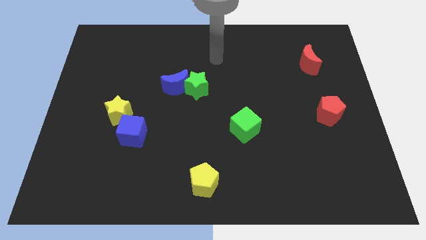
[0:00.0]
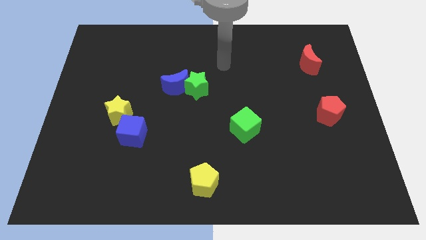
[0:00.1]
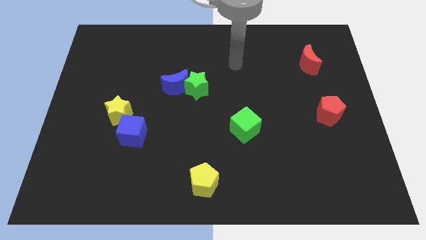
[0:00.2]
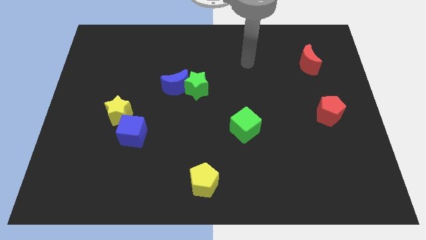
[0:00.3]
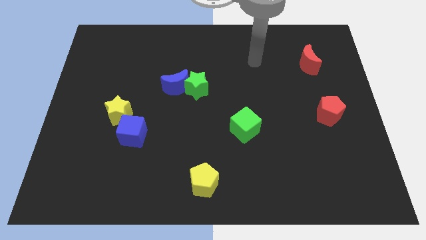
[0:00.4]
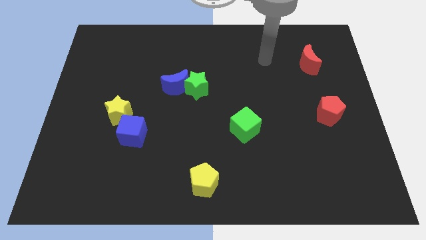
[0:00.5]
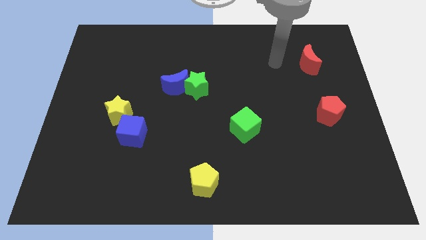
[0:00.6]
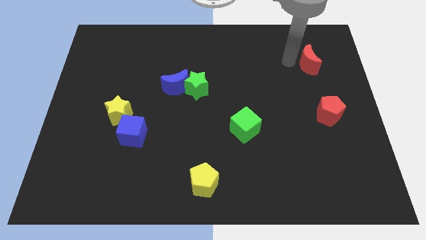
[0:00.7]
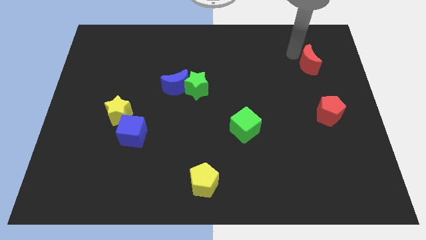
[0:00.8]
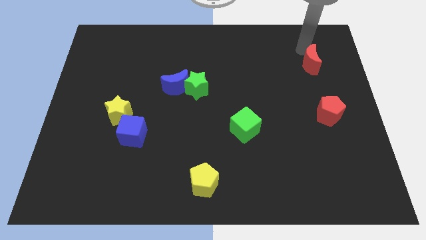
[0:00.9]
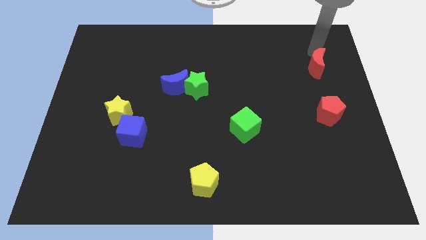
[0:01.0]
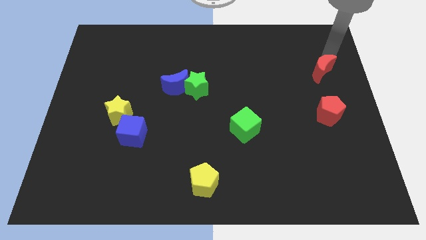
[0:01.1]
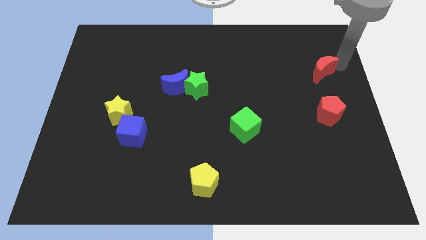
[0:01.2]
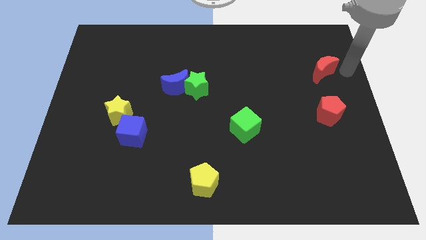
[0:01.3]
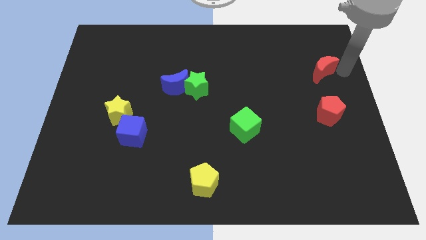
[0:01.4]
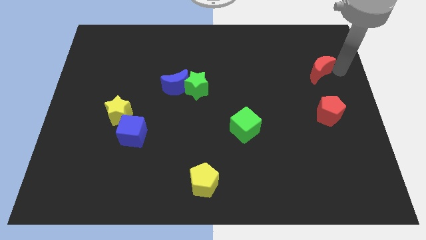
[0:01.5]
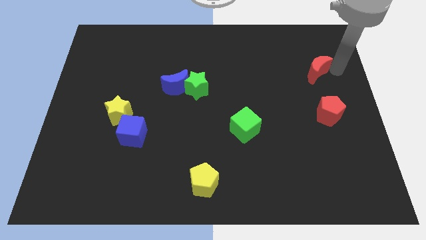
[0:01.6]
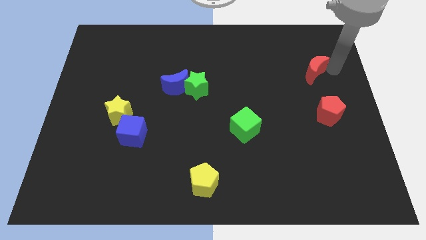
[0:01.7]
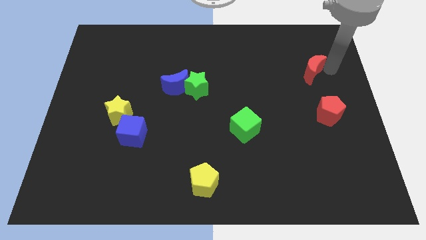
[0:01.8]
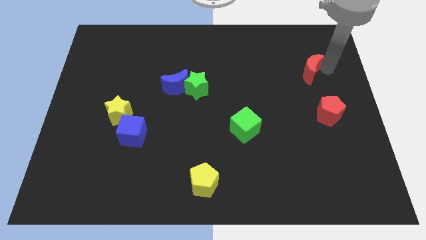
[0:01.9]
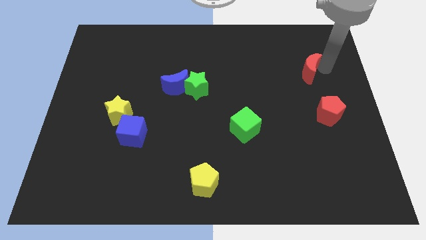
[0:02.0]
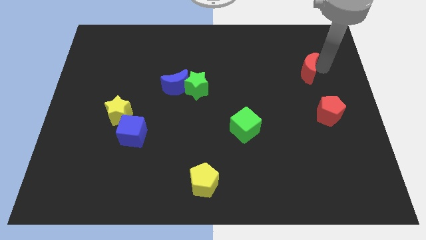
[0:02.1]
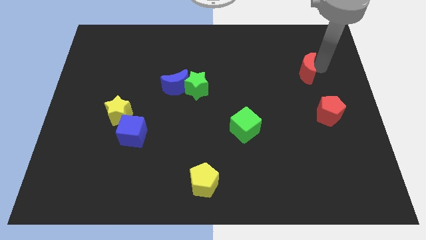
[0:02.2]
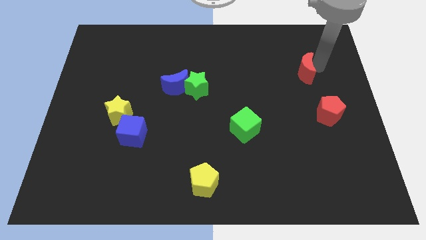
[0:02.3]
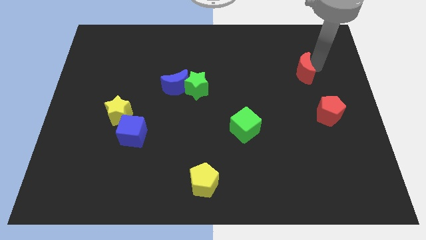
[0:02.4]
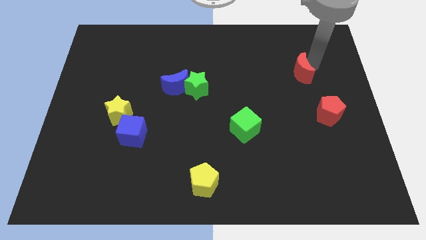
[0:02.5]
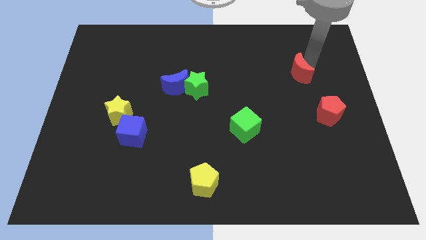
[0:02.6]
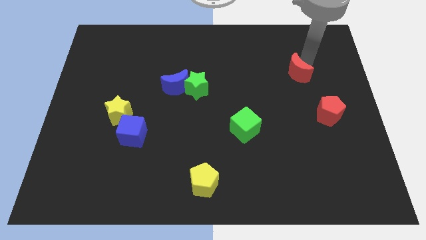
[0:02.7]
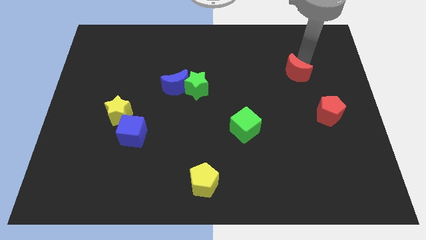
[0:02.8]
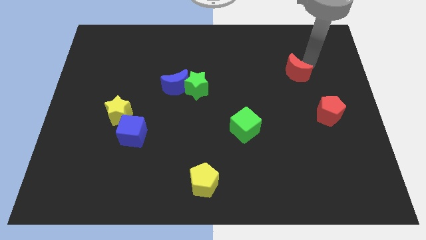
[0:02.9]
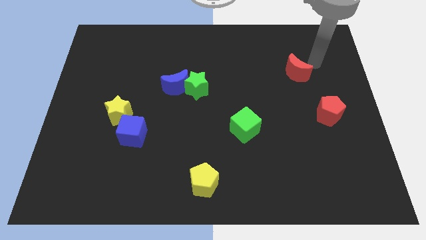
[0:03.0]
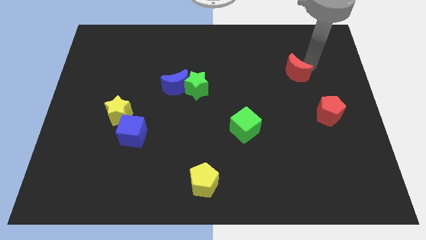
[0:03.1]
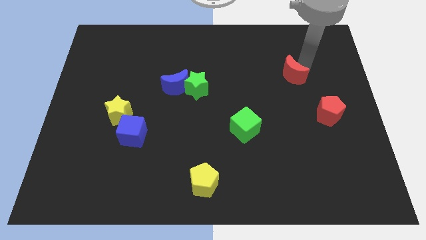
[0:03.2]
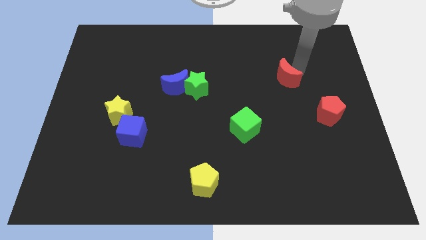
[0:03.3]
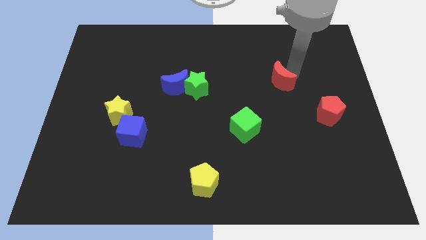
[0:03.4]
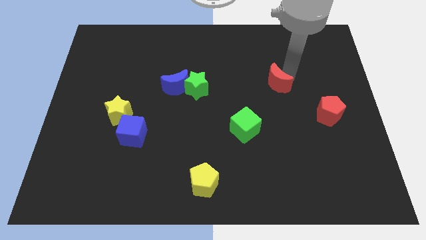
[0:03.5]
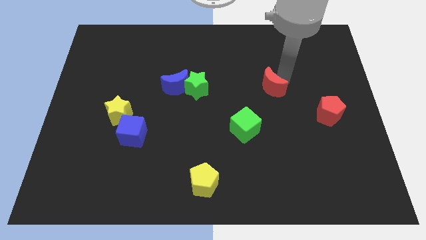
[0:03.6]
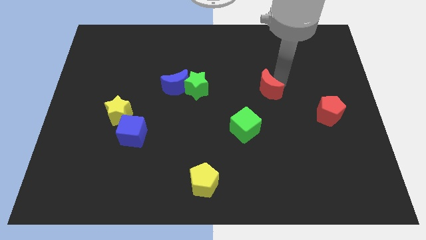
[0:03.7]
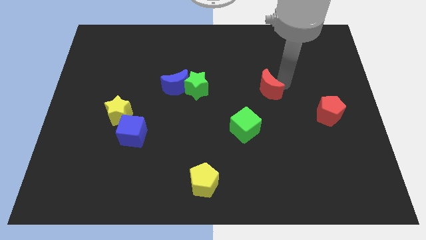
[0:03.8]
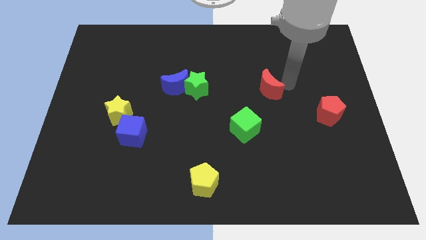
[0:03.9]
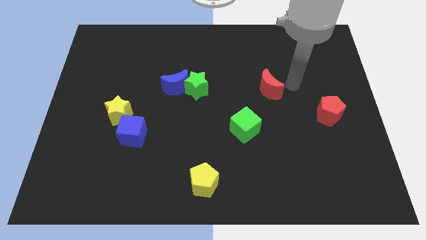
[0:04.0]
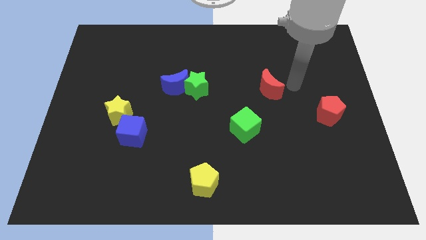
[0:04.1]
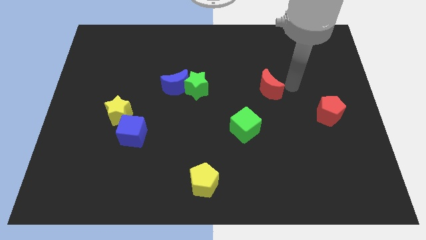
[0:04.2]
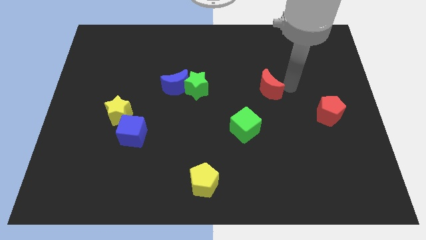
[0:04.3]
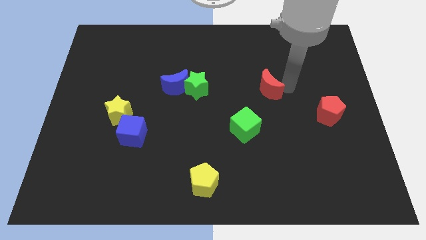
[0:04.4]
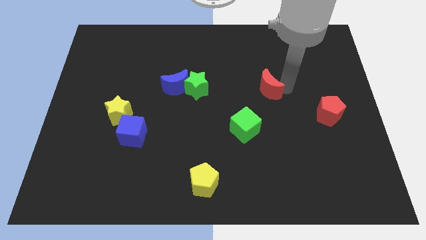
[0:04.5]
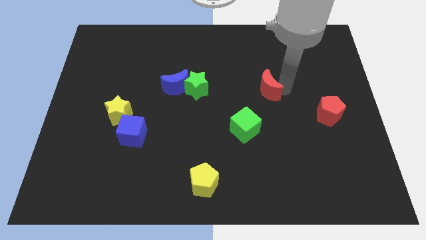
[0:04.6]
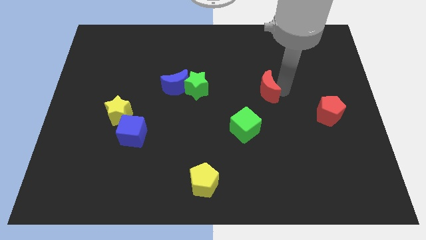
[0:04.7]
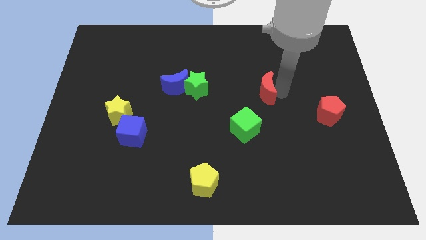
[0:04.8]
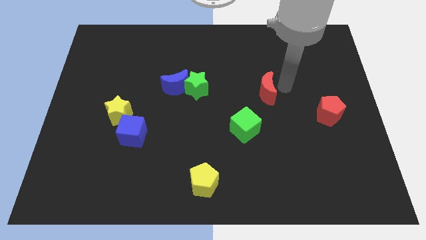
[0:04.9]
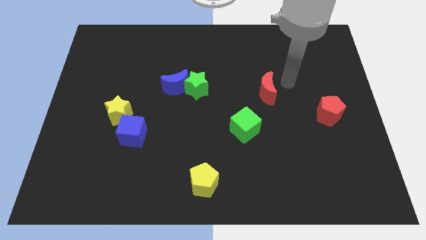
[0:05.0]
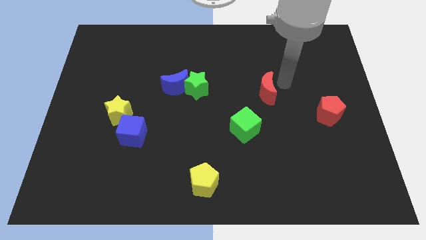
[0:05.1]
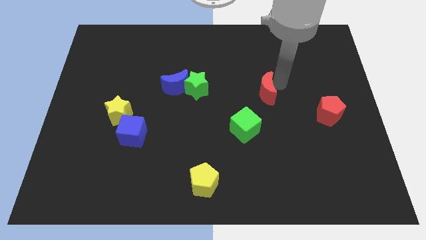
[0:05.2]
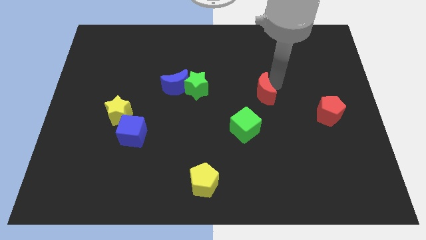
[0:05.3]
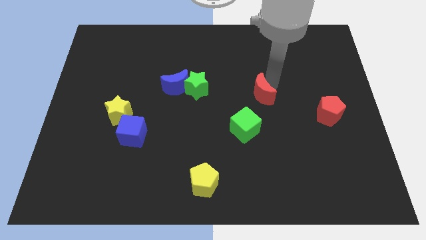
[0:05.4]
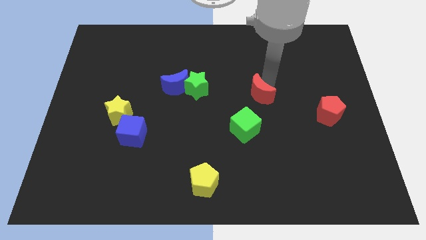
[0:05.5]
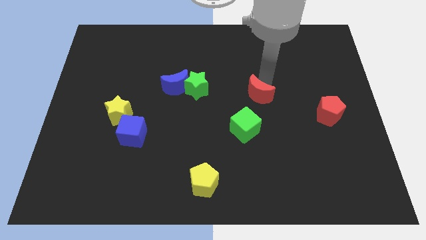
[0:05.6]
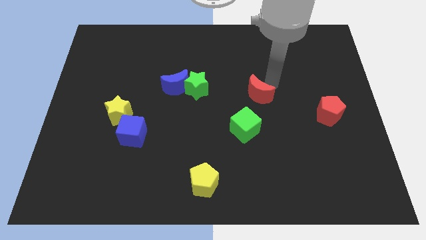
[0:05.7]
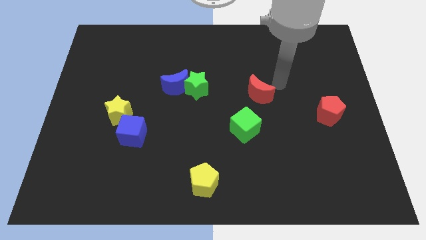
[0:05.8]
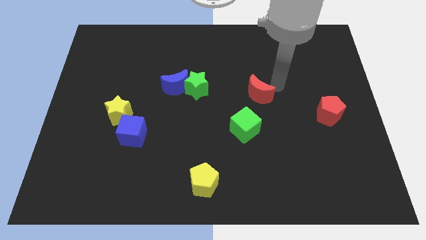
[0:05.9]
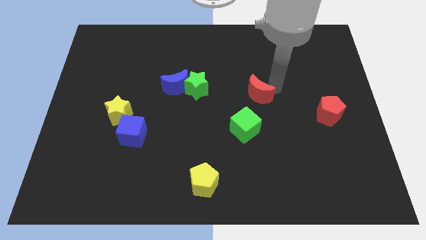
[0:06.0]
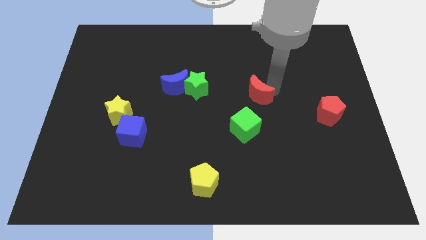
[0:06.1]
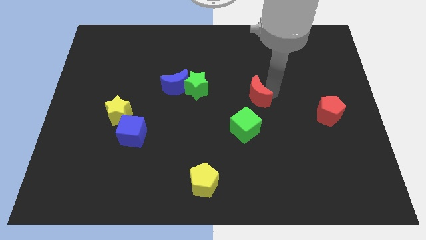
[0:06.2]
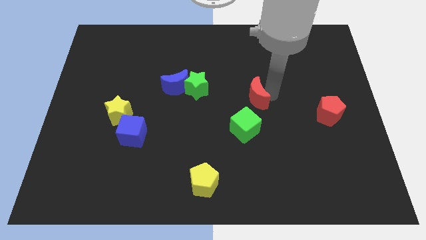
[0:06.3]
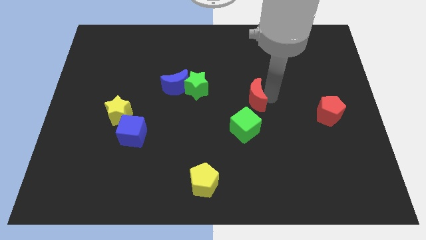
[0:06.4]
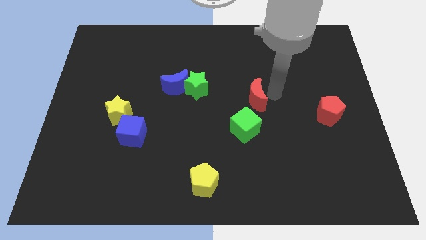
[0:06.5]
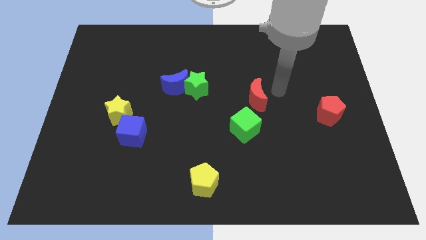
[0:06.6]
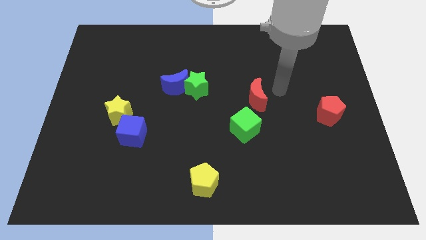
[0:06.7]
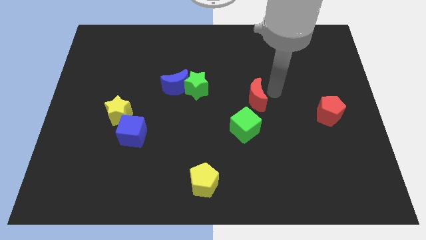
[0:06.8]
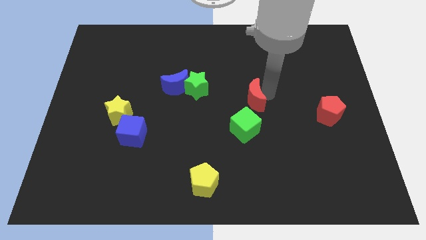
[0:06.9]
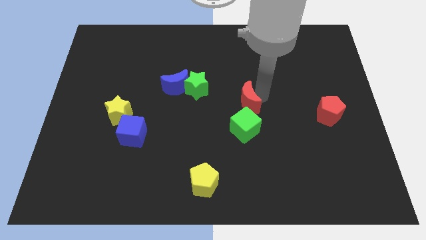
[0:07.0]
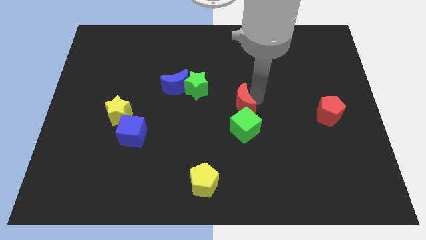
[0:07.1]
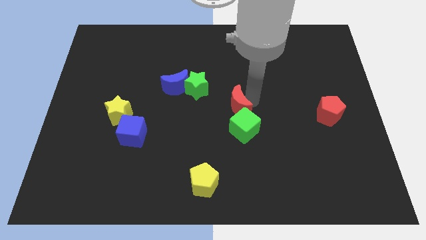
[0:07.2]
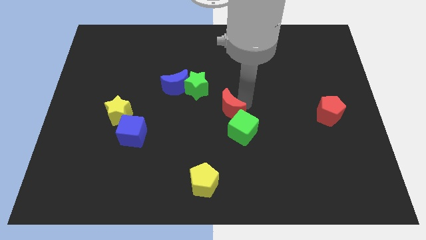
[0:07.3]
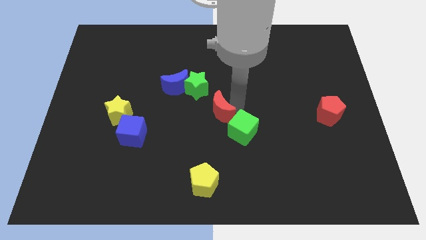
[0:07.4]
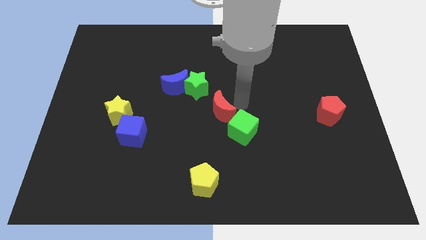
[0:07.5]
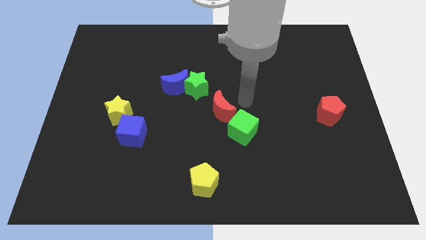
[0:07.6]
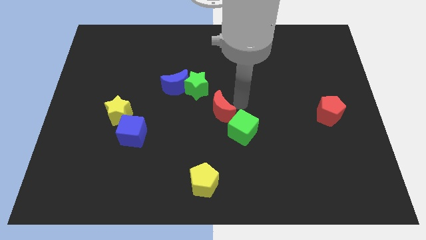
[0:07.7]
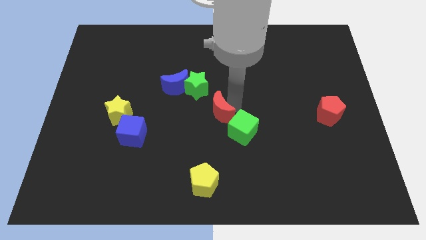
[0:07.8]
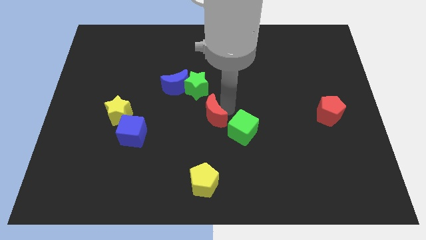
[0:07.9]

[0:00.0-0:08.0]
put the red moon to the bottom side of the green star
